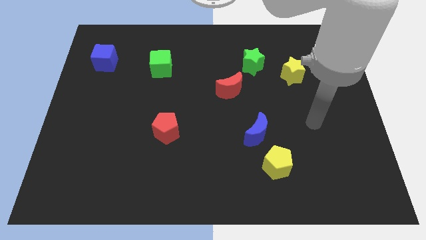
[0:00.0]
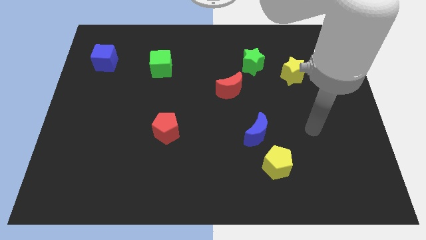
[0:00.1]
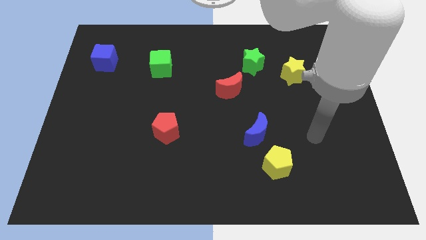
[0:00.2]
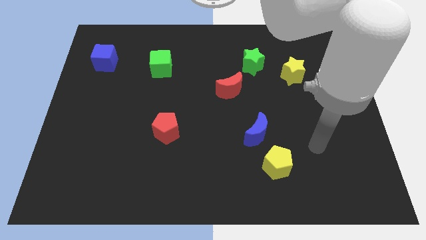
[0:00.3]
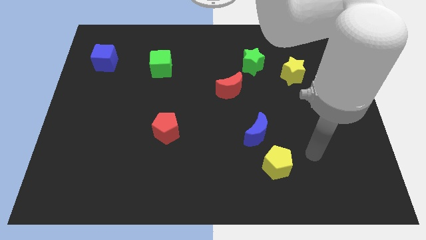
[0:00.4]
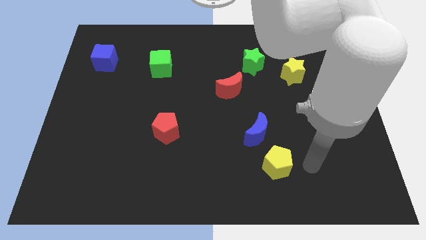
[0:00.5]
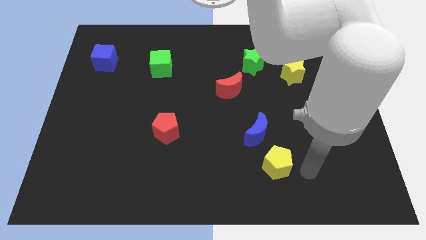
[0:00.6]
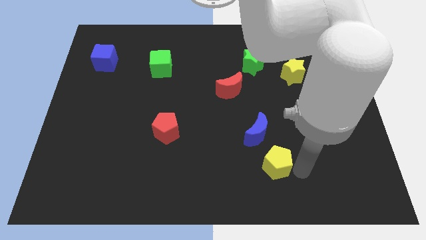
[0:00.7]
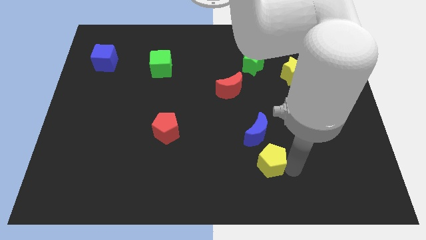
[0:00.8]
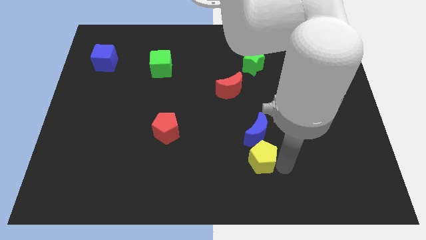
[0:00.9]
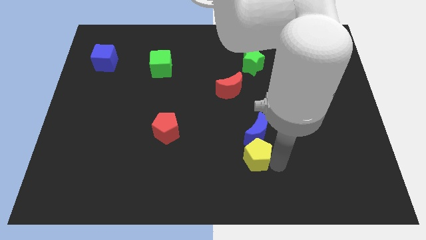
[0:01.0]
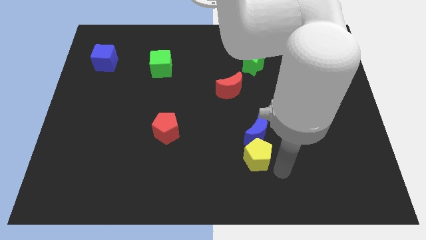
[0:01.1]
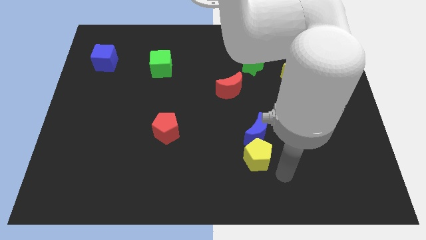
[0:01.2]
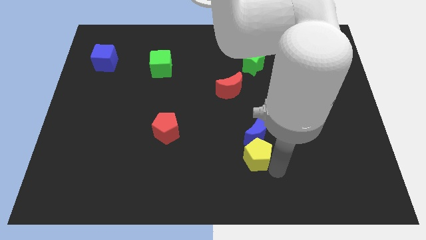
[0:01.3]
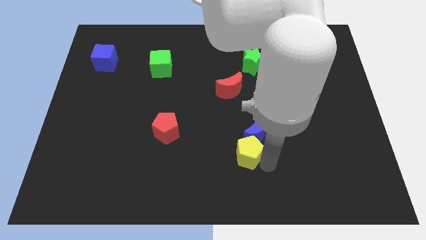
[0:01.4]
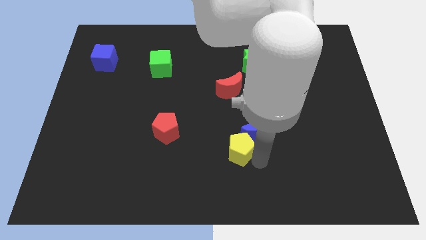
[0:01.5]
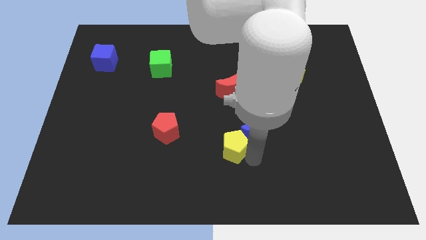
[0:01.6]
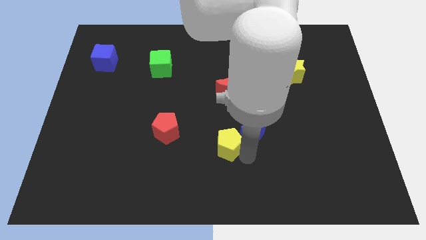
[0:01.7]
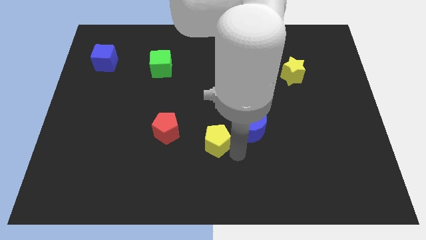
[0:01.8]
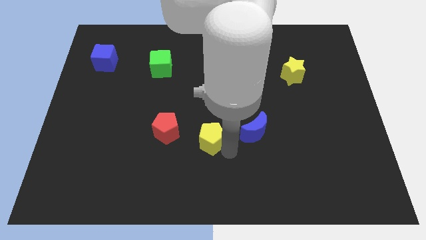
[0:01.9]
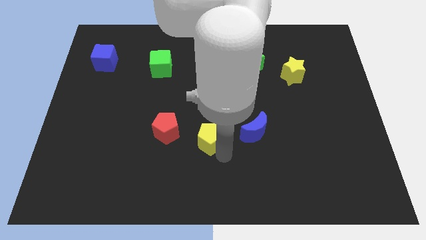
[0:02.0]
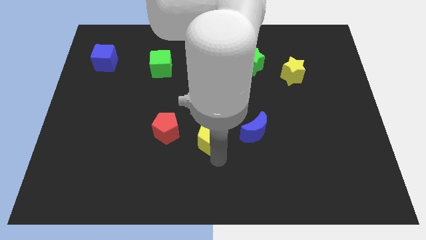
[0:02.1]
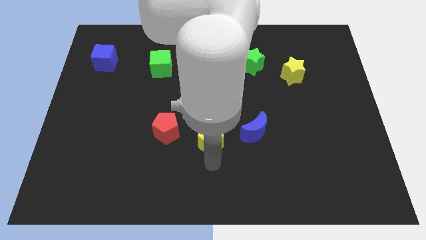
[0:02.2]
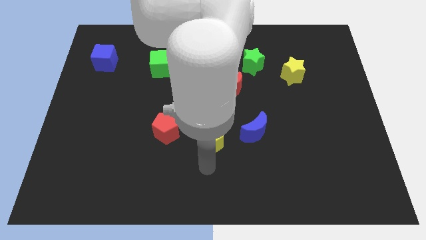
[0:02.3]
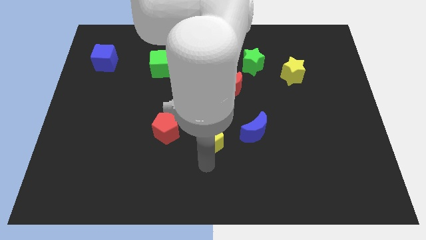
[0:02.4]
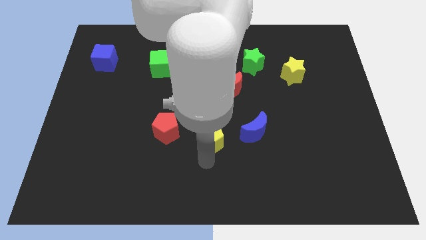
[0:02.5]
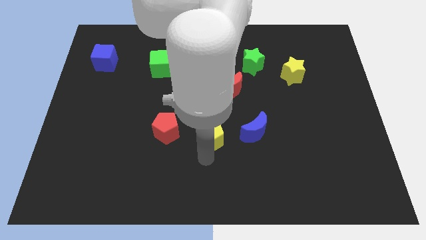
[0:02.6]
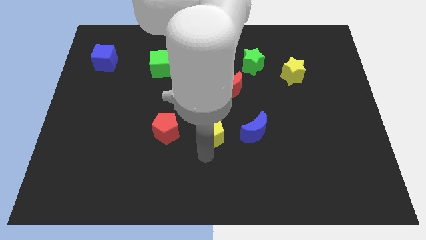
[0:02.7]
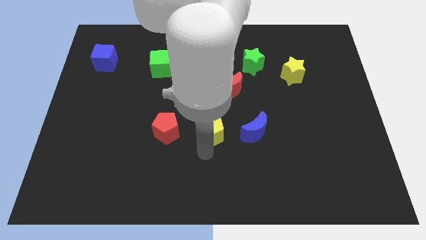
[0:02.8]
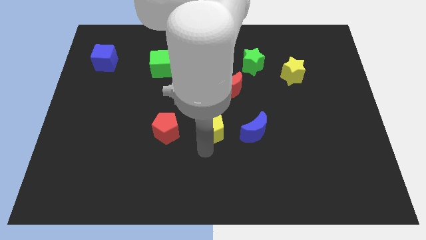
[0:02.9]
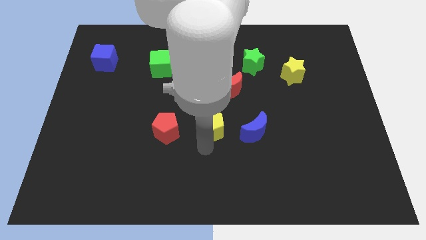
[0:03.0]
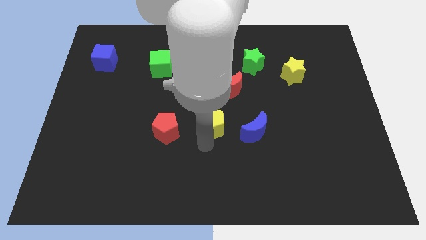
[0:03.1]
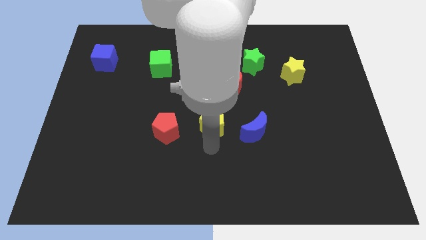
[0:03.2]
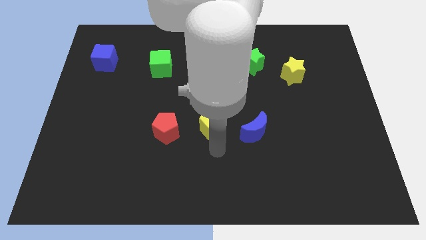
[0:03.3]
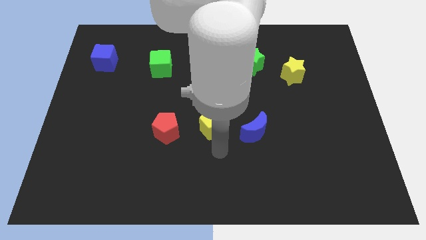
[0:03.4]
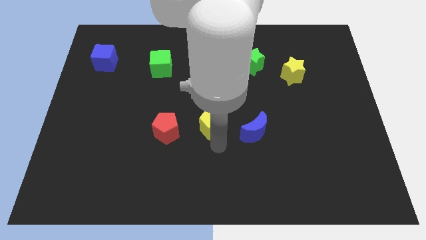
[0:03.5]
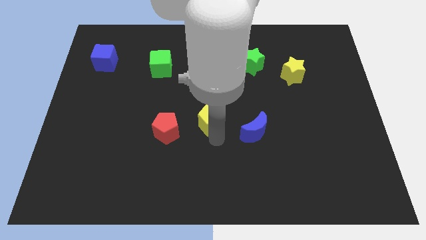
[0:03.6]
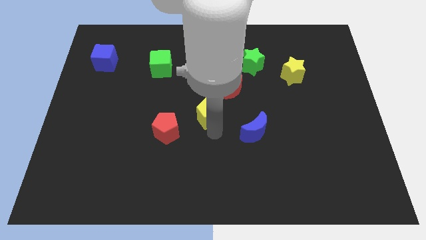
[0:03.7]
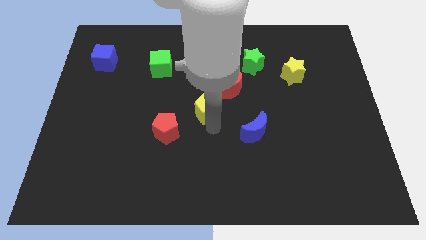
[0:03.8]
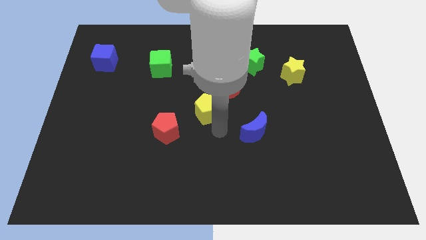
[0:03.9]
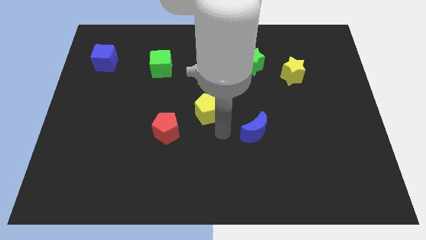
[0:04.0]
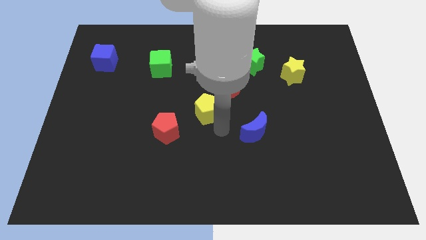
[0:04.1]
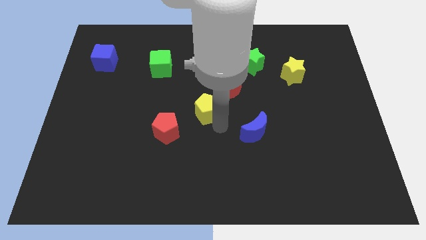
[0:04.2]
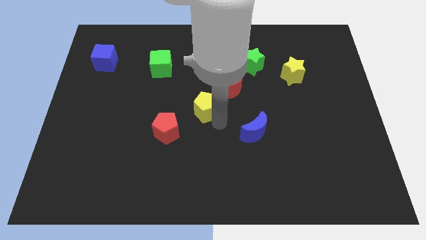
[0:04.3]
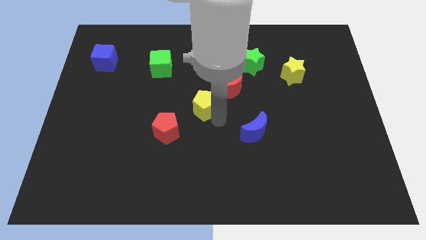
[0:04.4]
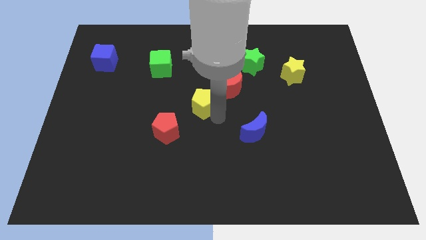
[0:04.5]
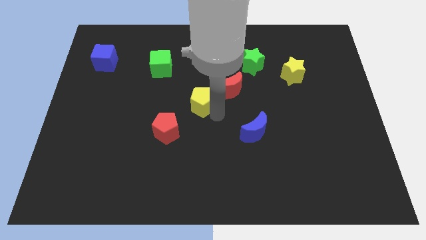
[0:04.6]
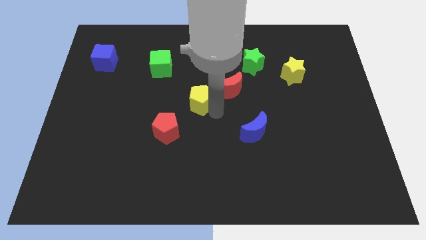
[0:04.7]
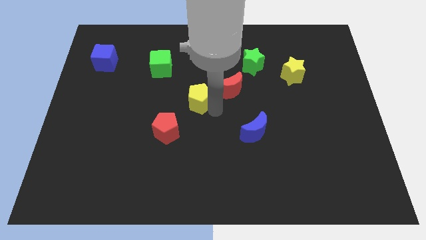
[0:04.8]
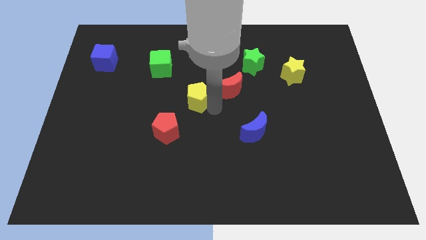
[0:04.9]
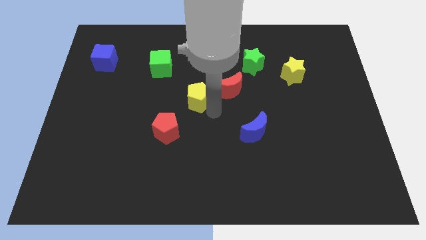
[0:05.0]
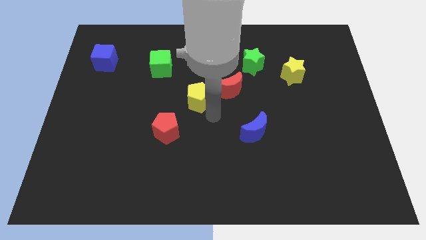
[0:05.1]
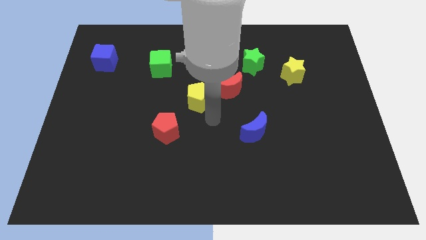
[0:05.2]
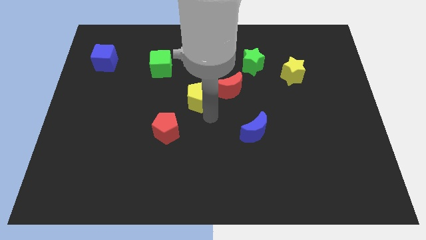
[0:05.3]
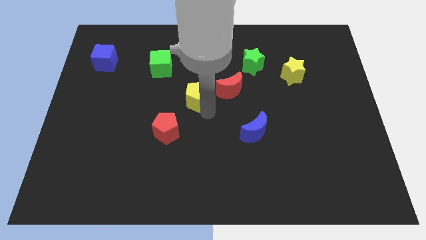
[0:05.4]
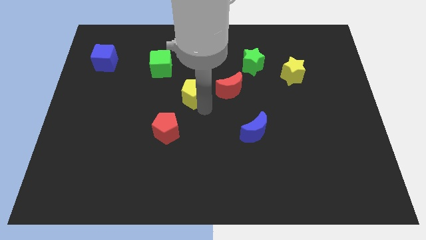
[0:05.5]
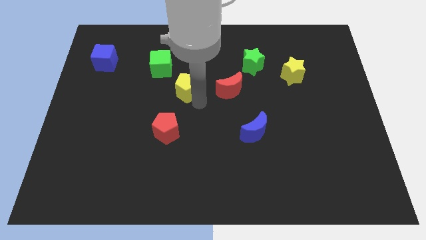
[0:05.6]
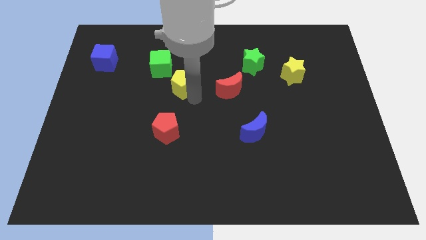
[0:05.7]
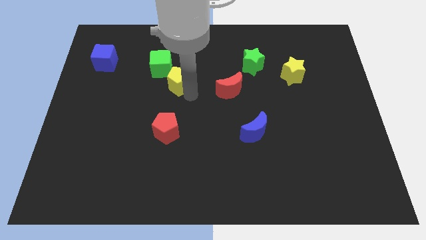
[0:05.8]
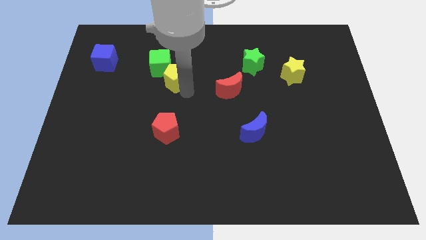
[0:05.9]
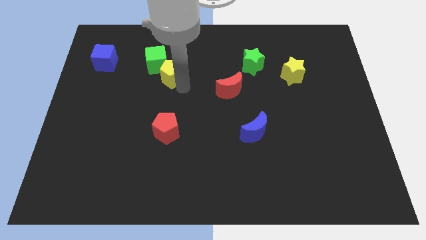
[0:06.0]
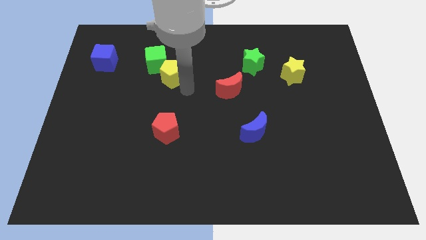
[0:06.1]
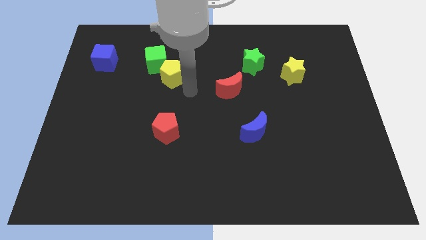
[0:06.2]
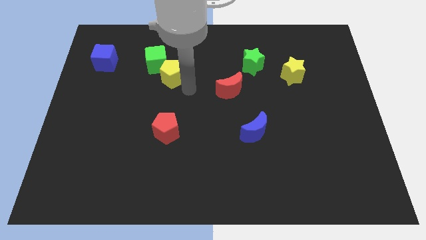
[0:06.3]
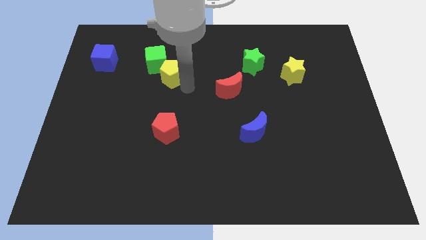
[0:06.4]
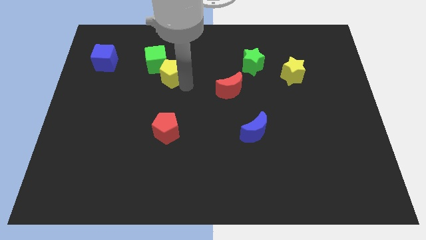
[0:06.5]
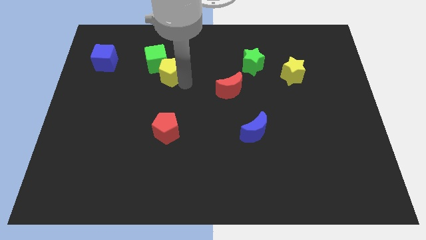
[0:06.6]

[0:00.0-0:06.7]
move the yellow pentagon next to the green cube

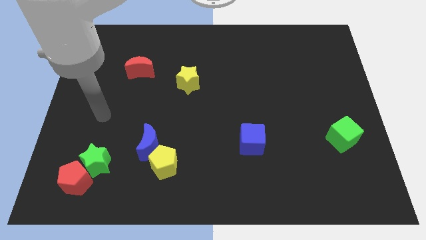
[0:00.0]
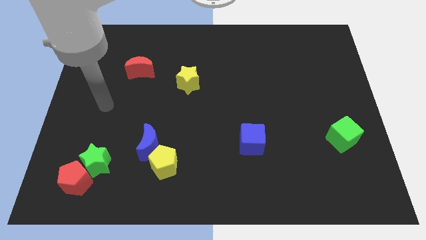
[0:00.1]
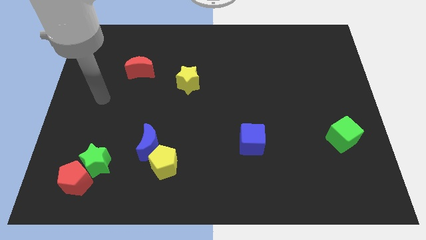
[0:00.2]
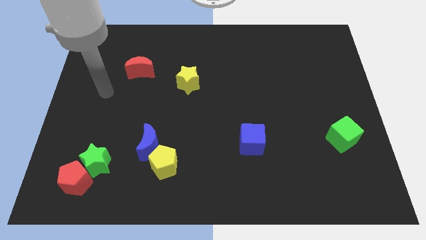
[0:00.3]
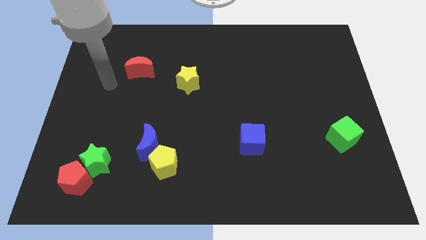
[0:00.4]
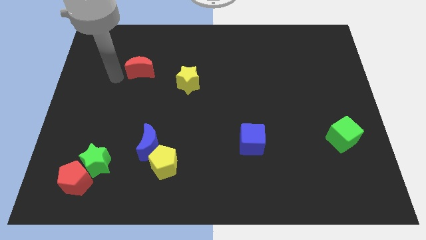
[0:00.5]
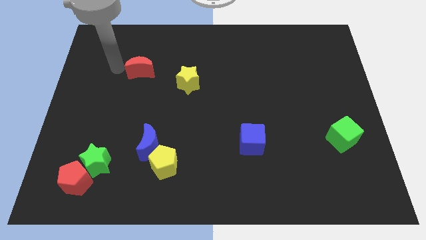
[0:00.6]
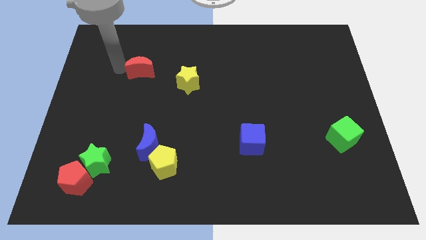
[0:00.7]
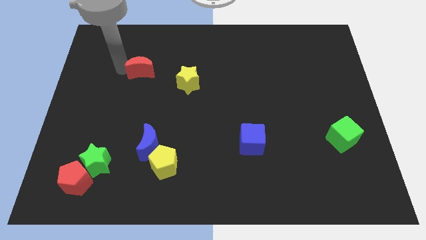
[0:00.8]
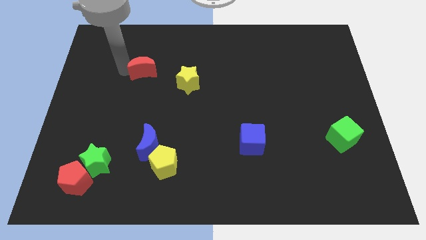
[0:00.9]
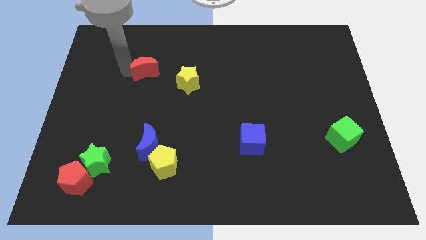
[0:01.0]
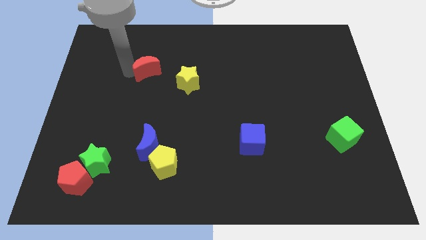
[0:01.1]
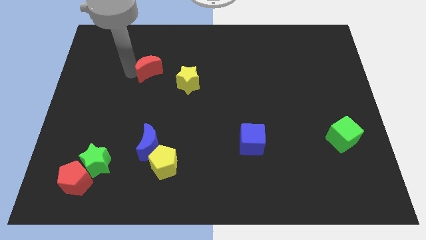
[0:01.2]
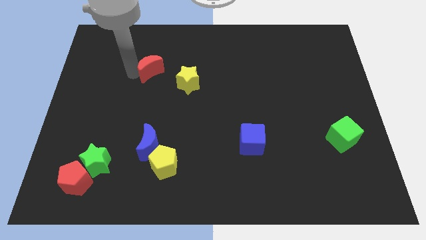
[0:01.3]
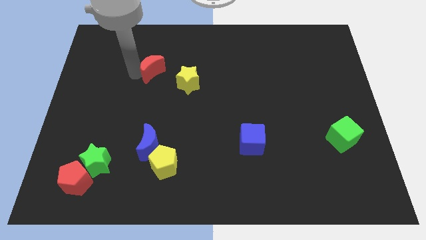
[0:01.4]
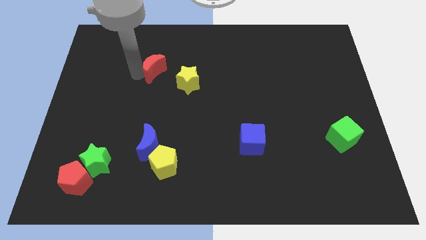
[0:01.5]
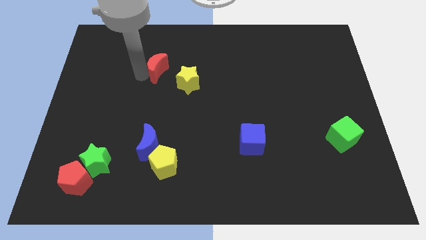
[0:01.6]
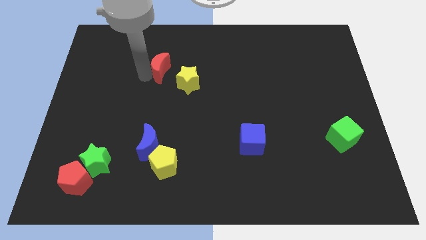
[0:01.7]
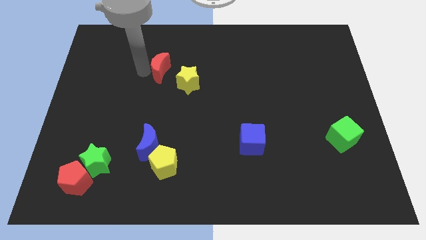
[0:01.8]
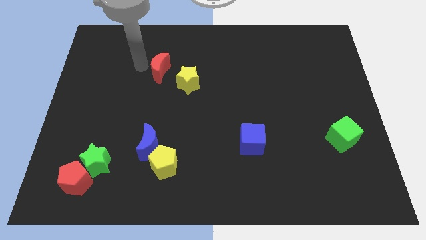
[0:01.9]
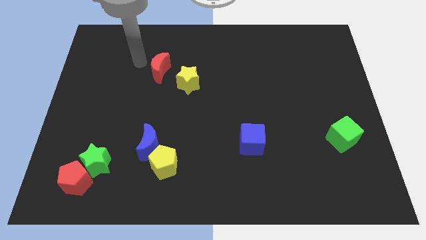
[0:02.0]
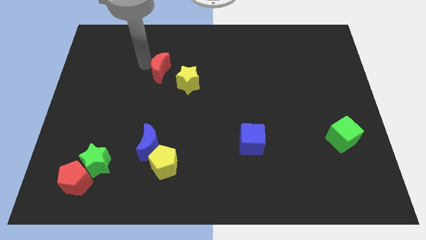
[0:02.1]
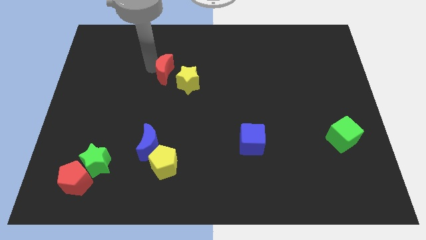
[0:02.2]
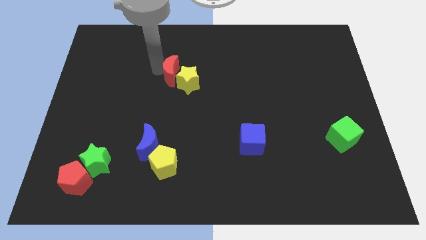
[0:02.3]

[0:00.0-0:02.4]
slide the red moon next to the yellow star
